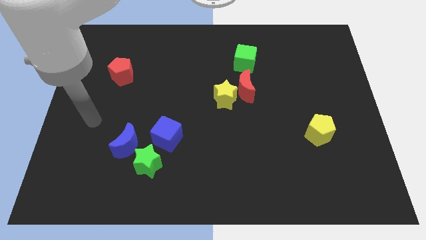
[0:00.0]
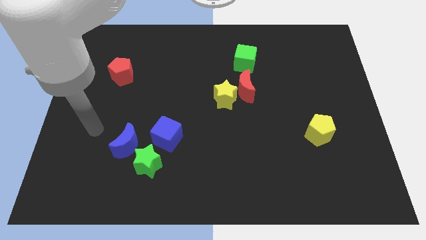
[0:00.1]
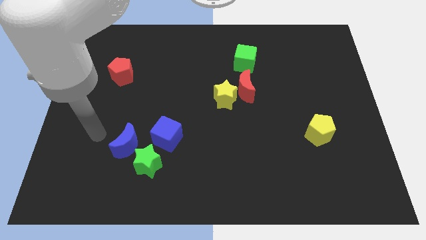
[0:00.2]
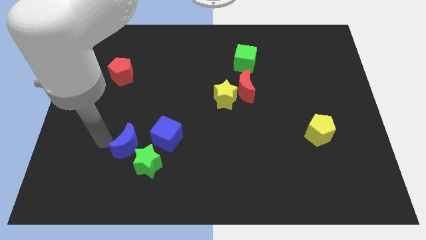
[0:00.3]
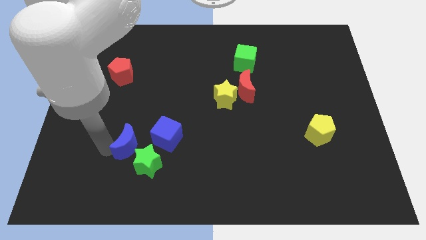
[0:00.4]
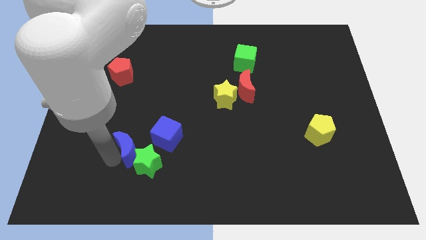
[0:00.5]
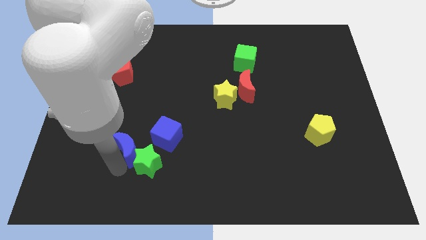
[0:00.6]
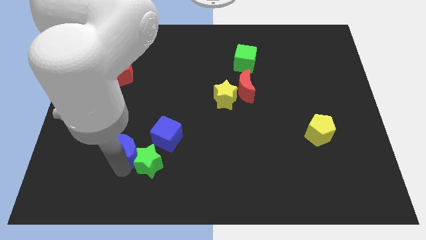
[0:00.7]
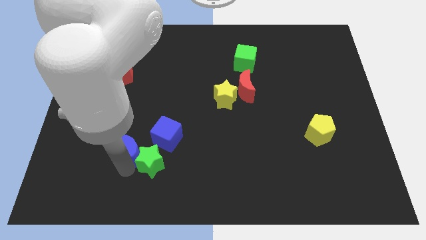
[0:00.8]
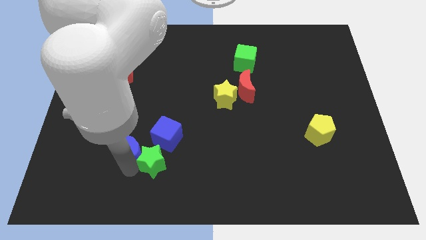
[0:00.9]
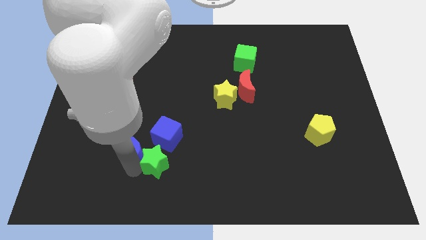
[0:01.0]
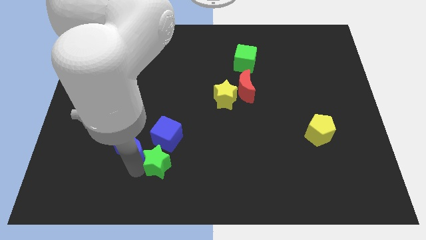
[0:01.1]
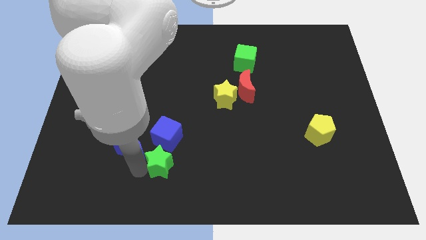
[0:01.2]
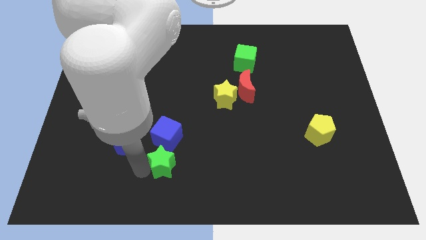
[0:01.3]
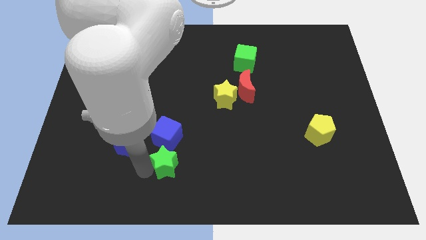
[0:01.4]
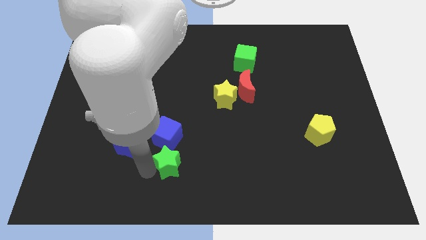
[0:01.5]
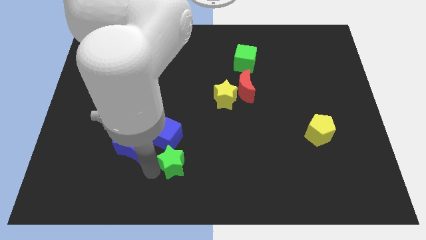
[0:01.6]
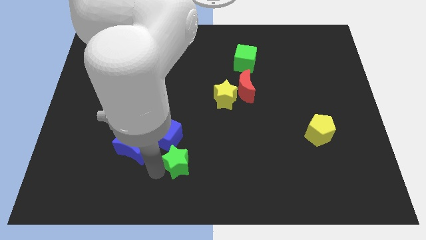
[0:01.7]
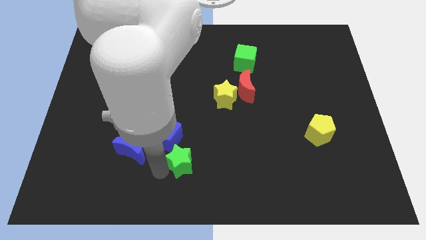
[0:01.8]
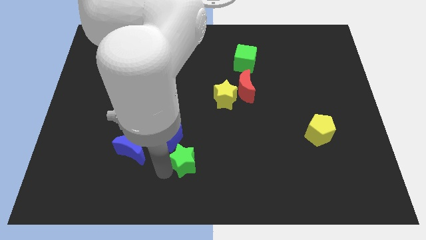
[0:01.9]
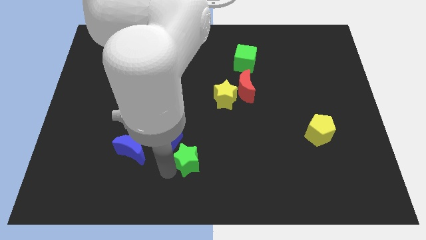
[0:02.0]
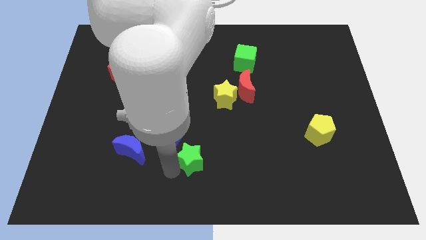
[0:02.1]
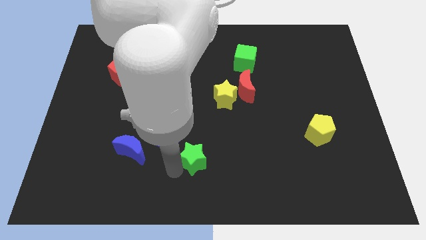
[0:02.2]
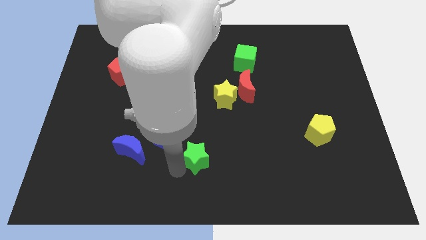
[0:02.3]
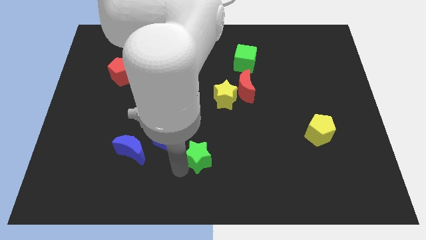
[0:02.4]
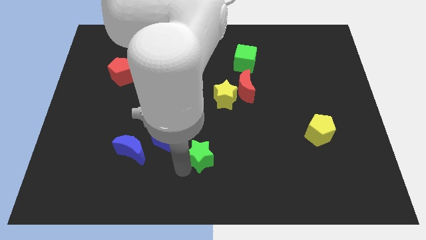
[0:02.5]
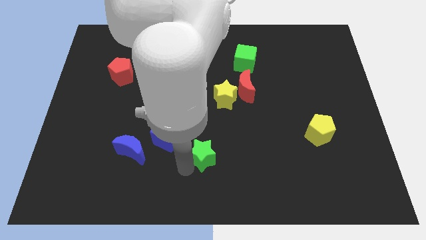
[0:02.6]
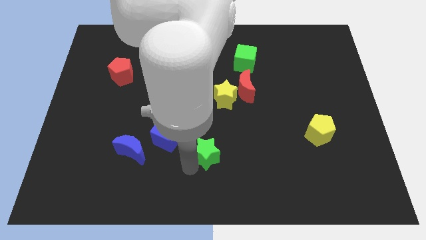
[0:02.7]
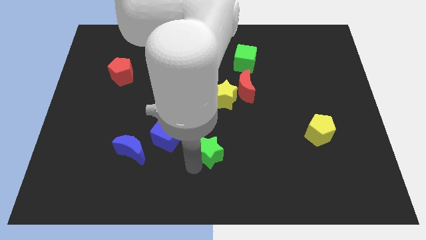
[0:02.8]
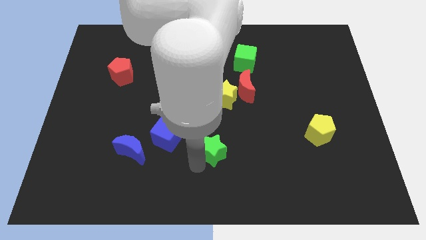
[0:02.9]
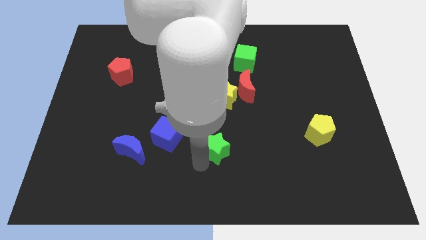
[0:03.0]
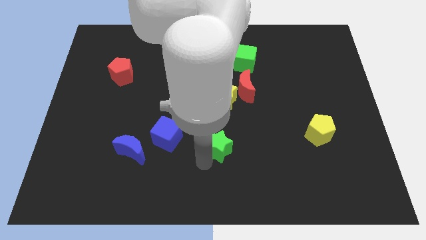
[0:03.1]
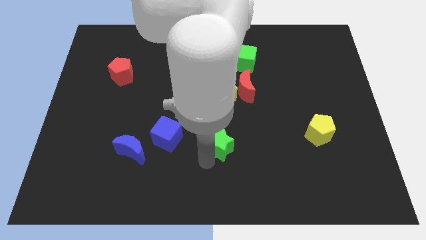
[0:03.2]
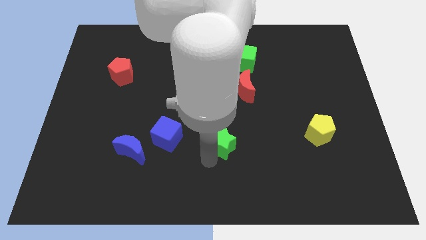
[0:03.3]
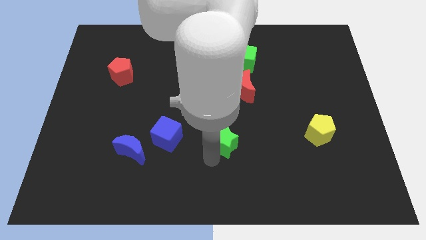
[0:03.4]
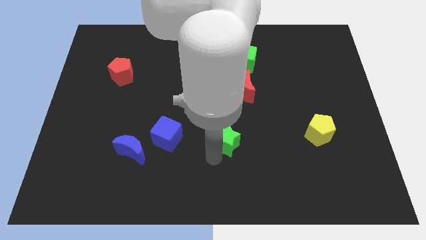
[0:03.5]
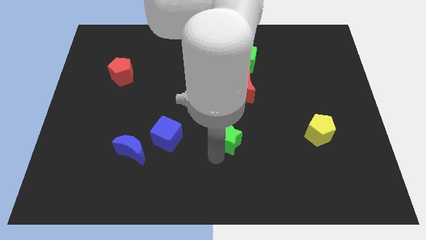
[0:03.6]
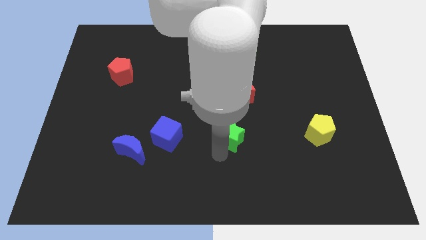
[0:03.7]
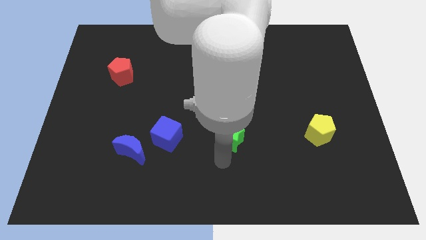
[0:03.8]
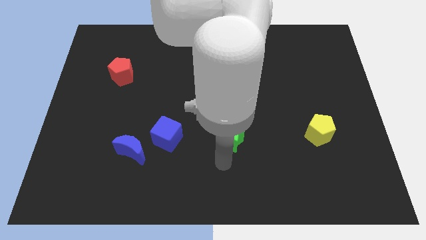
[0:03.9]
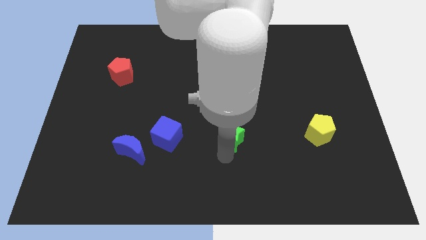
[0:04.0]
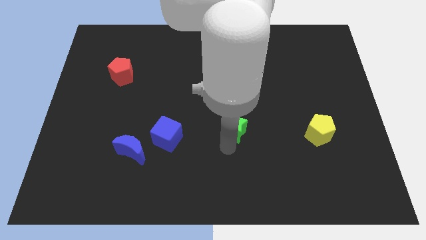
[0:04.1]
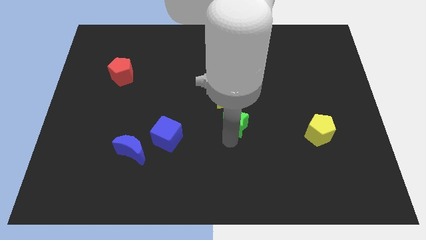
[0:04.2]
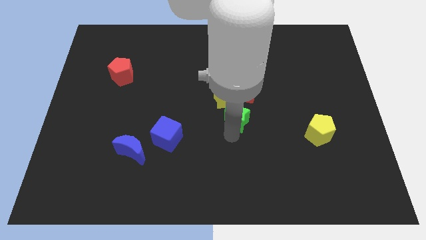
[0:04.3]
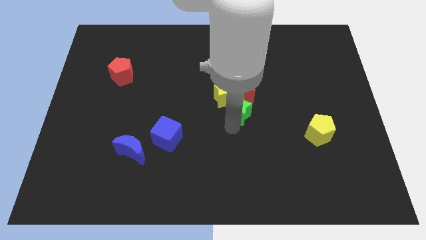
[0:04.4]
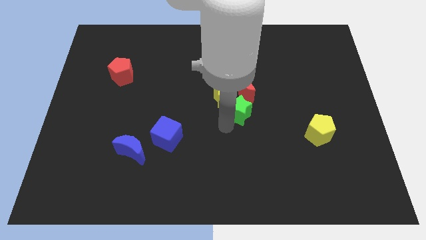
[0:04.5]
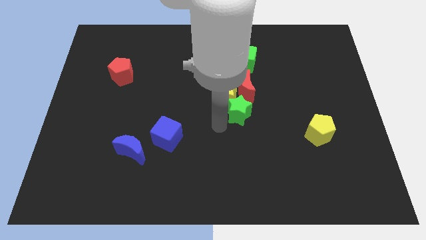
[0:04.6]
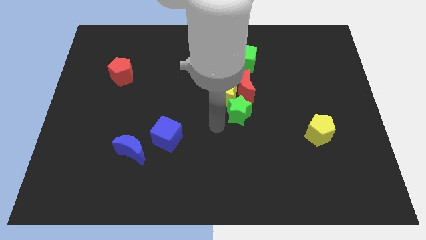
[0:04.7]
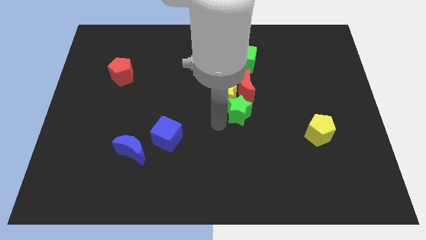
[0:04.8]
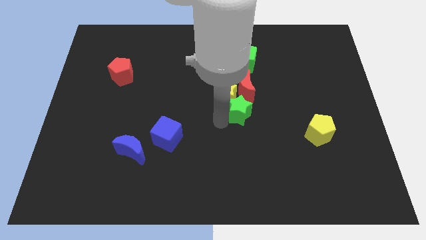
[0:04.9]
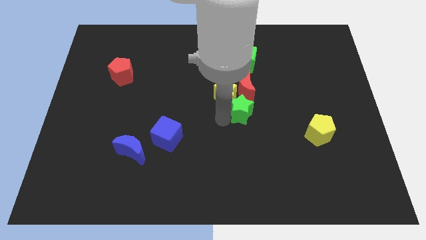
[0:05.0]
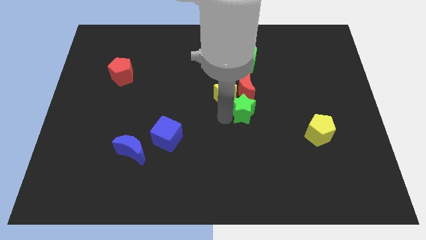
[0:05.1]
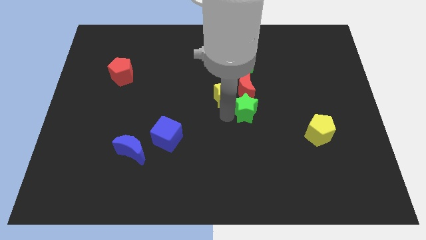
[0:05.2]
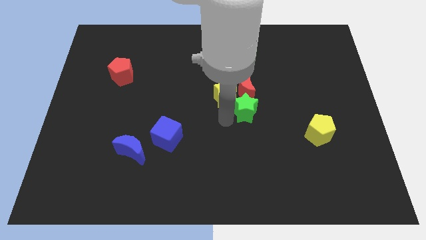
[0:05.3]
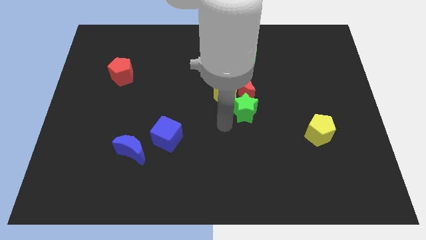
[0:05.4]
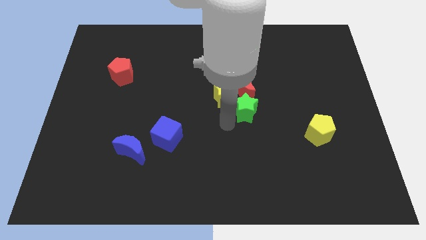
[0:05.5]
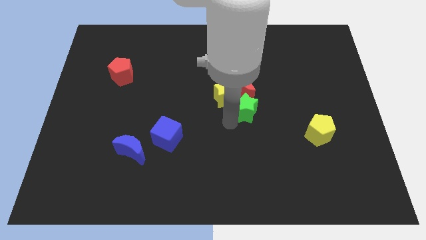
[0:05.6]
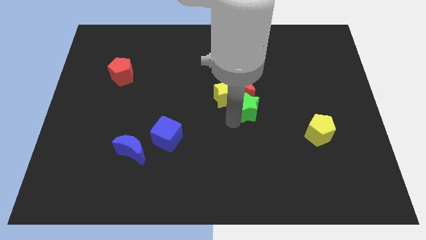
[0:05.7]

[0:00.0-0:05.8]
put the green star close to the red moon

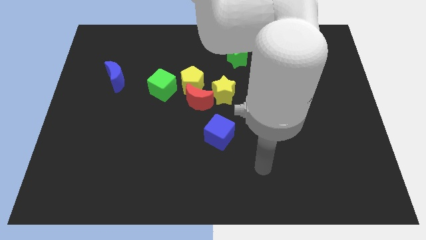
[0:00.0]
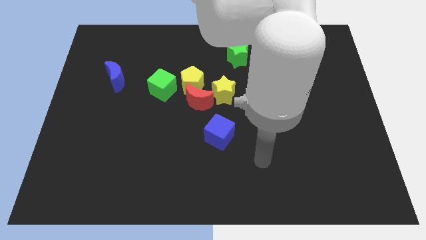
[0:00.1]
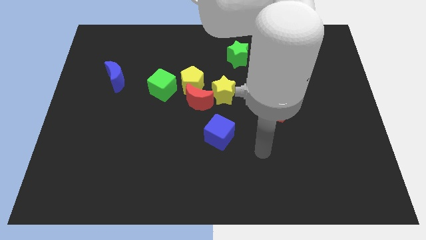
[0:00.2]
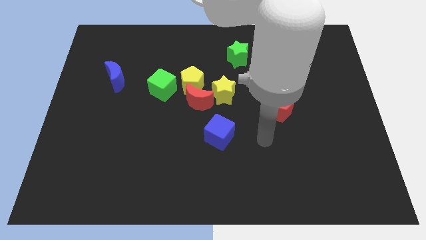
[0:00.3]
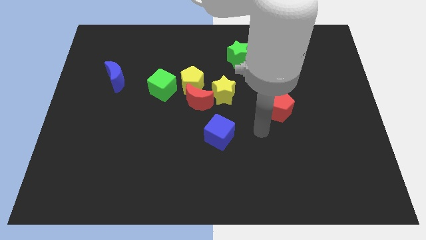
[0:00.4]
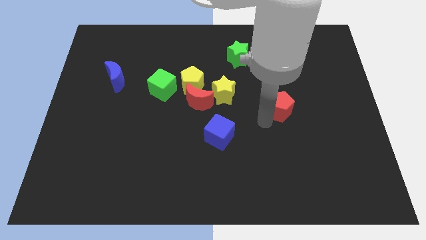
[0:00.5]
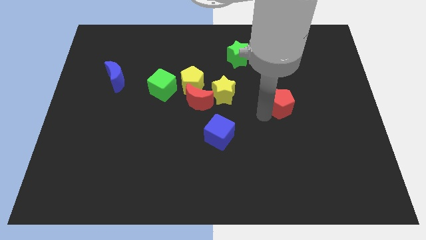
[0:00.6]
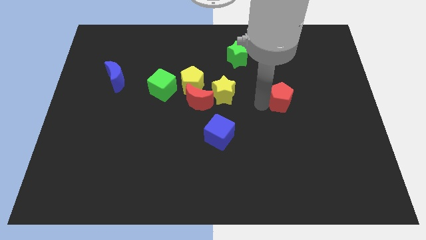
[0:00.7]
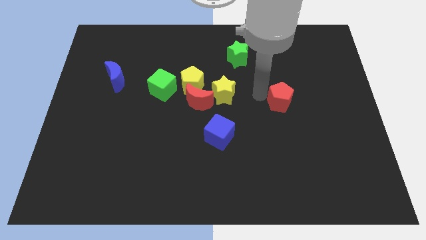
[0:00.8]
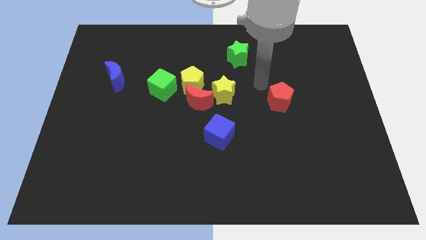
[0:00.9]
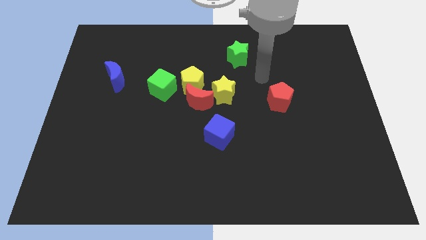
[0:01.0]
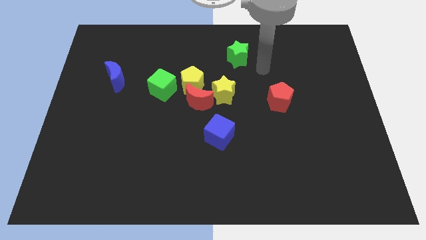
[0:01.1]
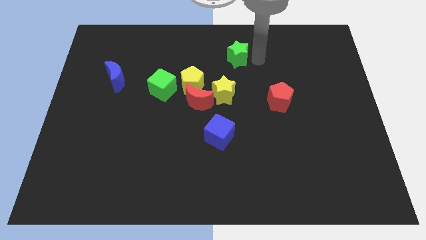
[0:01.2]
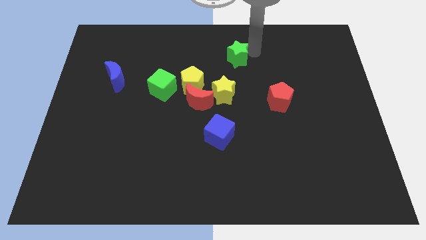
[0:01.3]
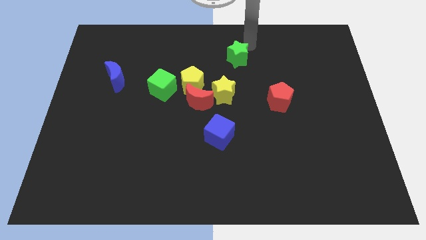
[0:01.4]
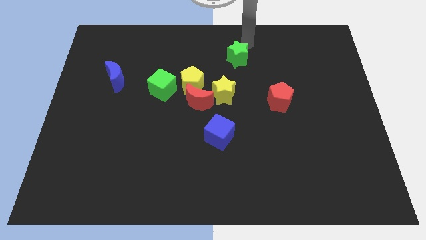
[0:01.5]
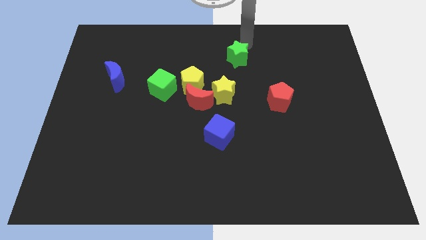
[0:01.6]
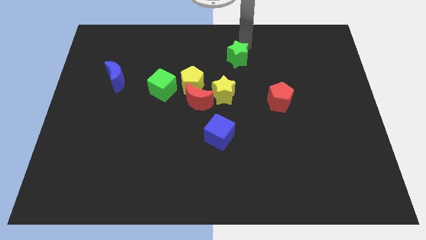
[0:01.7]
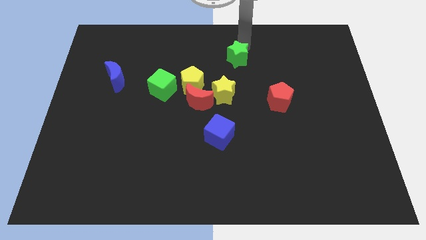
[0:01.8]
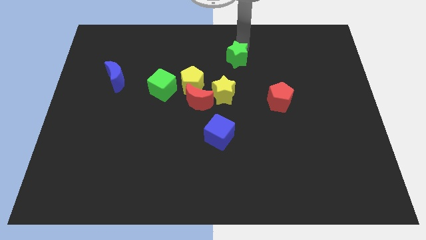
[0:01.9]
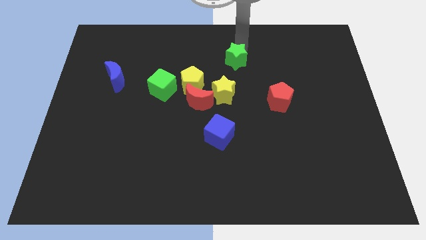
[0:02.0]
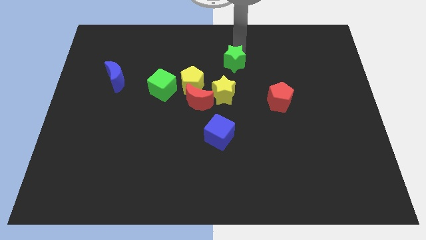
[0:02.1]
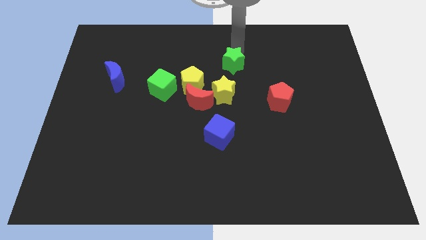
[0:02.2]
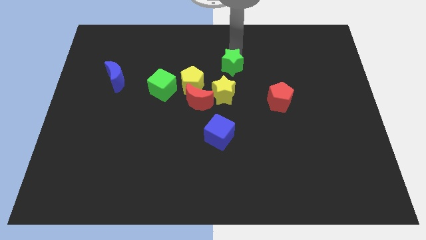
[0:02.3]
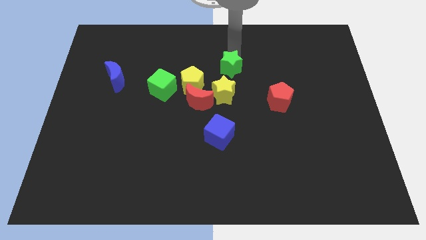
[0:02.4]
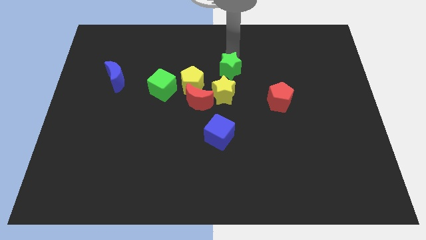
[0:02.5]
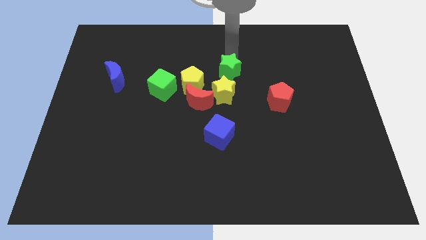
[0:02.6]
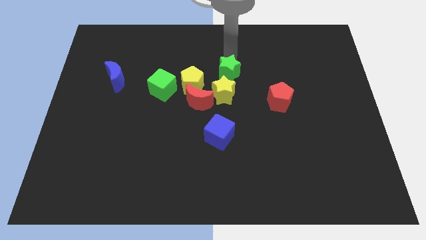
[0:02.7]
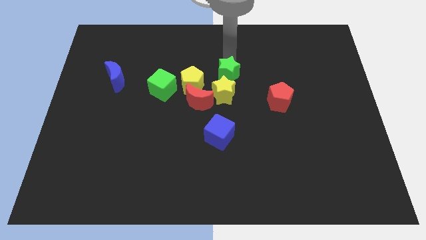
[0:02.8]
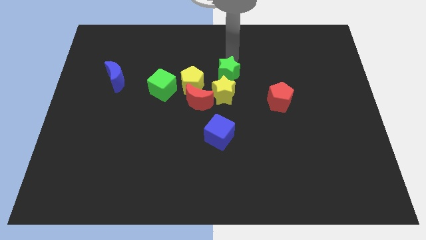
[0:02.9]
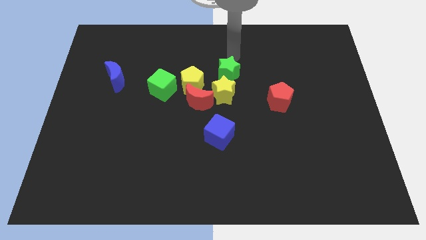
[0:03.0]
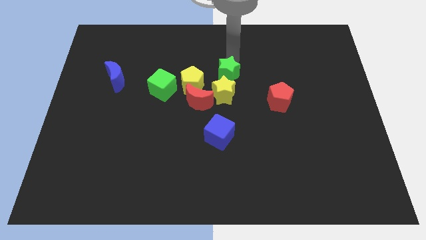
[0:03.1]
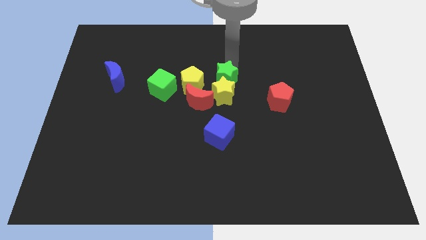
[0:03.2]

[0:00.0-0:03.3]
slide the green star to the yellow star
